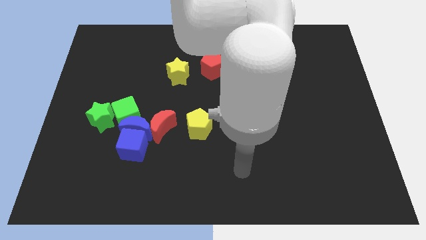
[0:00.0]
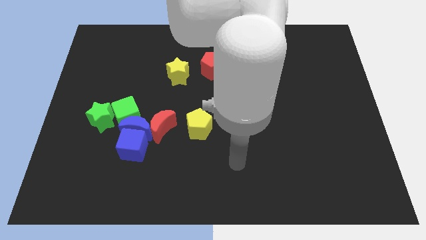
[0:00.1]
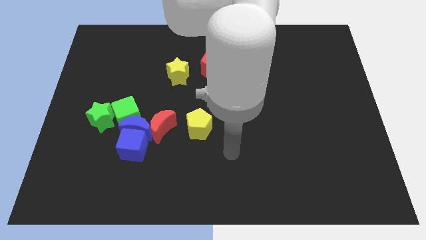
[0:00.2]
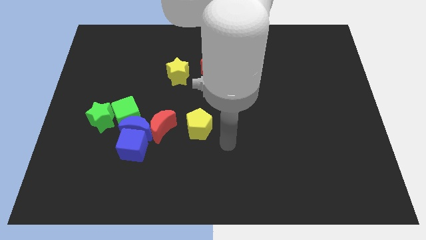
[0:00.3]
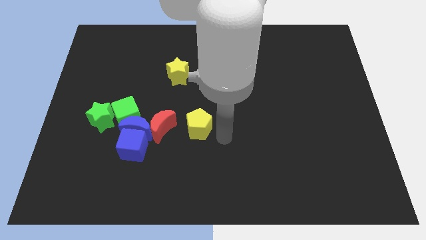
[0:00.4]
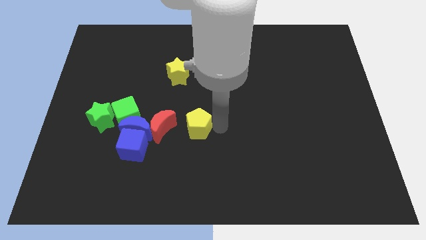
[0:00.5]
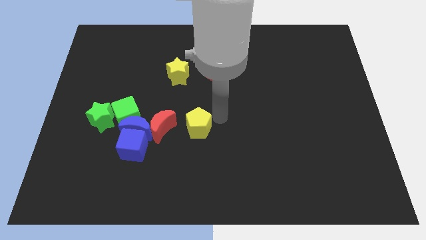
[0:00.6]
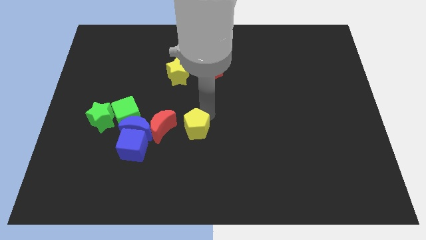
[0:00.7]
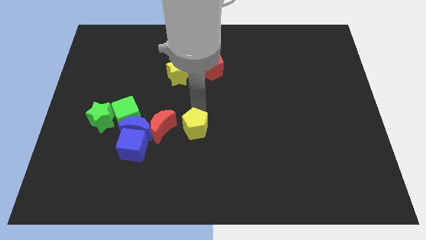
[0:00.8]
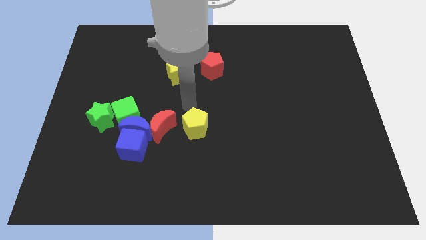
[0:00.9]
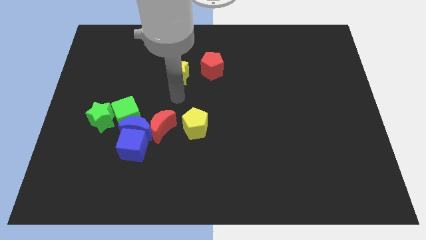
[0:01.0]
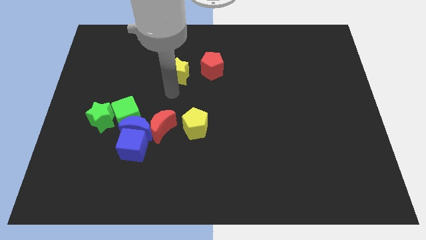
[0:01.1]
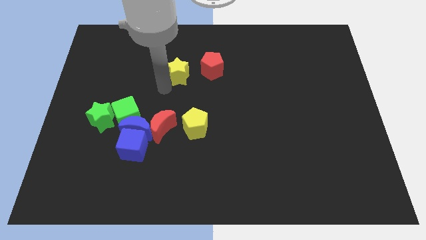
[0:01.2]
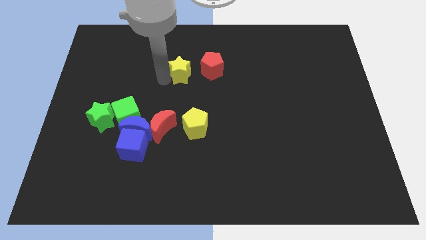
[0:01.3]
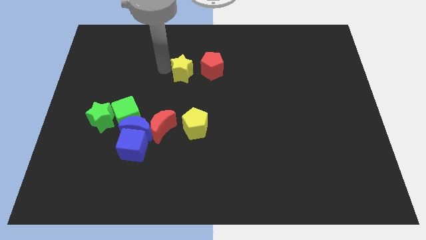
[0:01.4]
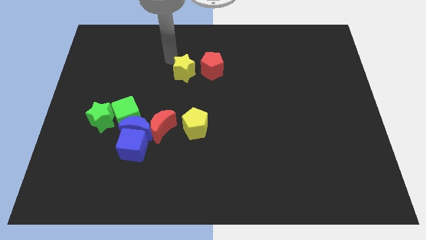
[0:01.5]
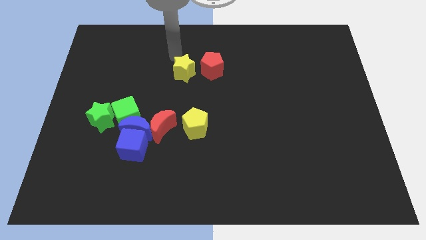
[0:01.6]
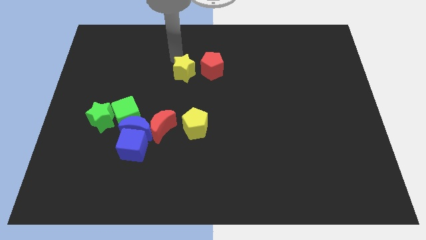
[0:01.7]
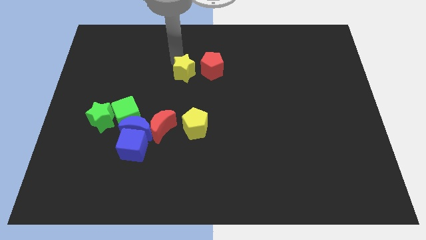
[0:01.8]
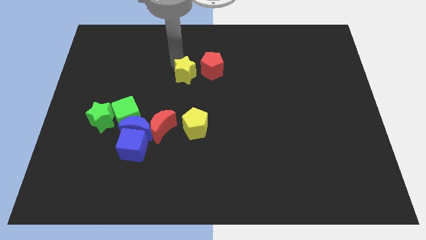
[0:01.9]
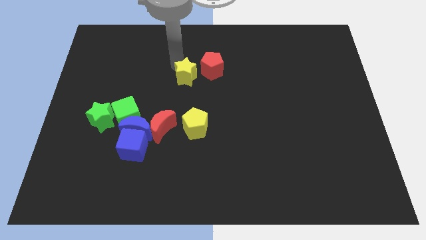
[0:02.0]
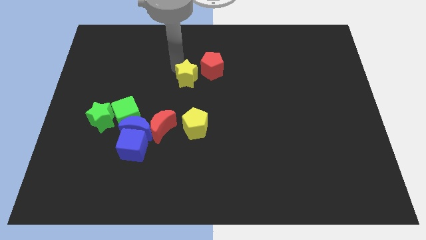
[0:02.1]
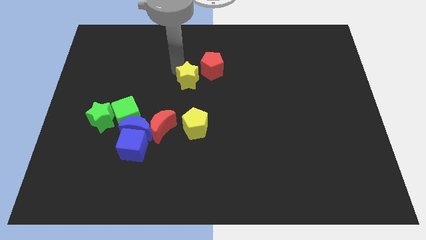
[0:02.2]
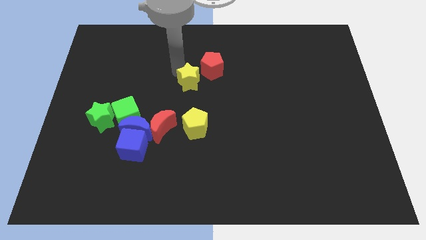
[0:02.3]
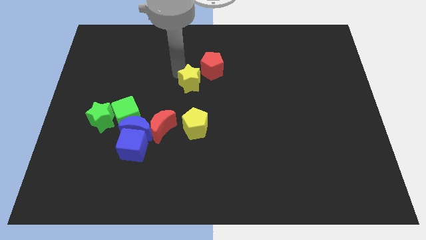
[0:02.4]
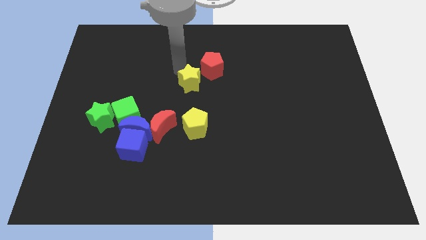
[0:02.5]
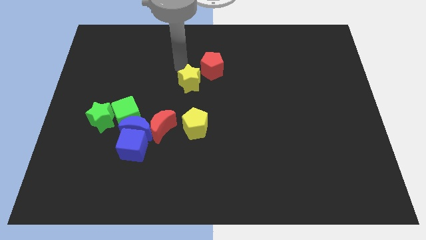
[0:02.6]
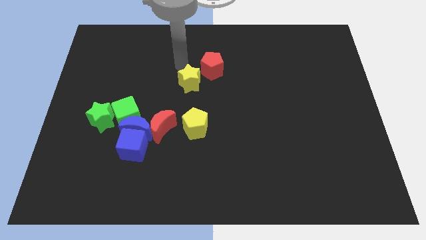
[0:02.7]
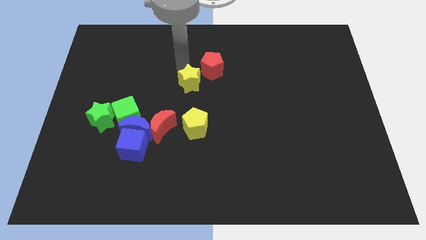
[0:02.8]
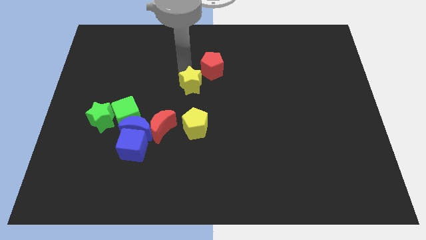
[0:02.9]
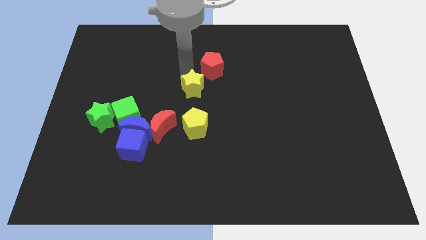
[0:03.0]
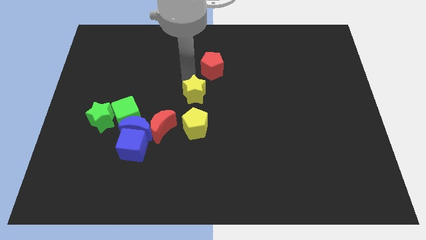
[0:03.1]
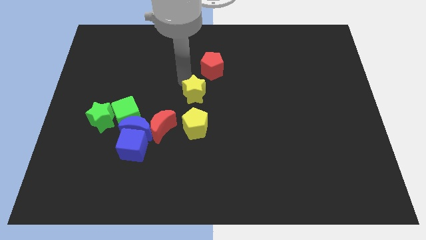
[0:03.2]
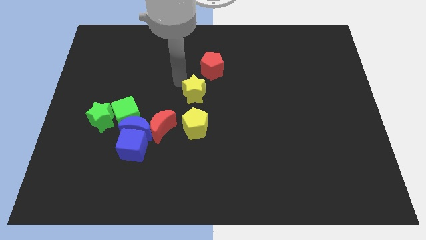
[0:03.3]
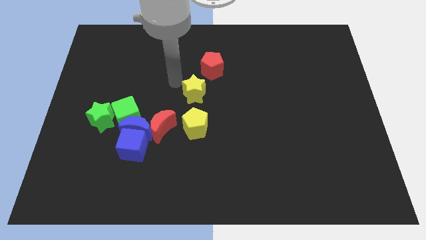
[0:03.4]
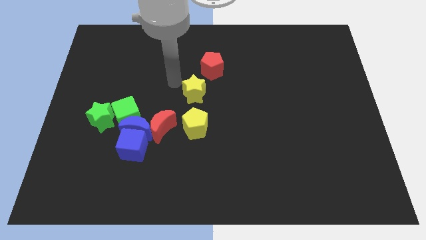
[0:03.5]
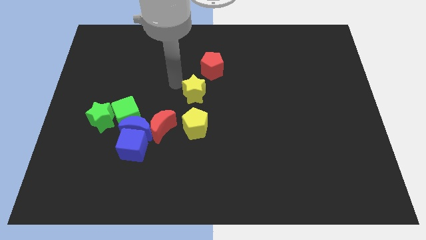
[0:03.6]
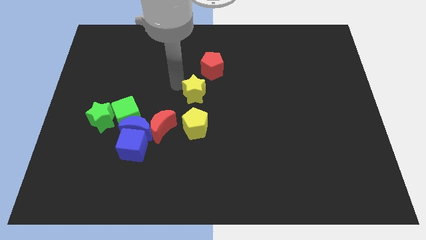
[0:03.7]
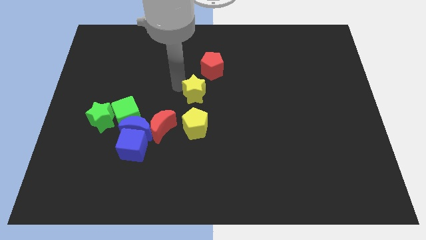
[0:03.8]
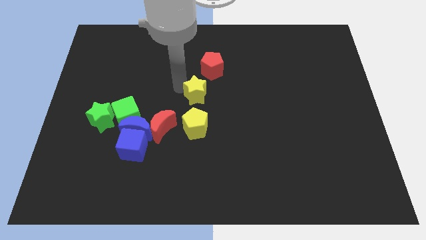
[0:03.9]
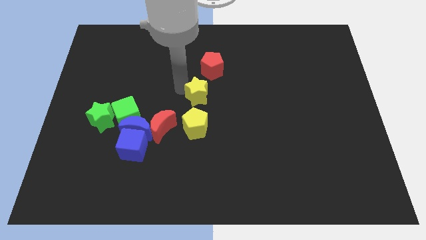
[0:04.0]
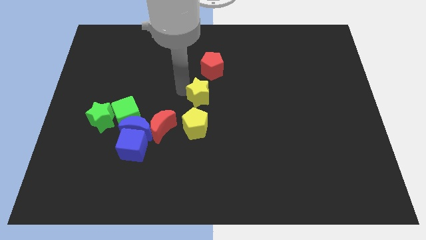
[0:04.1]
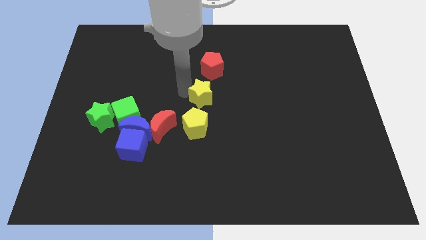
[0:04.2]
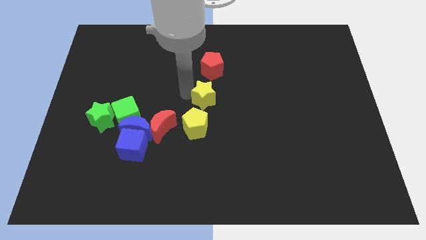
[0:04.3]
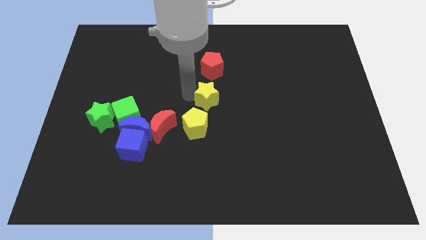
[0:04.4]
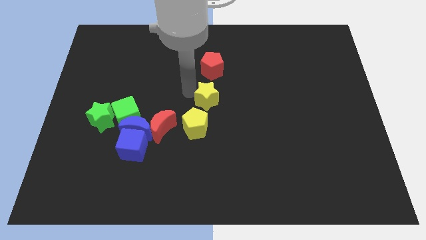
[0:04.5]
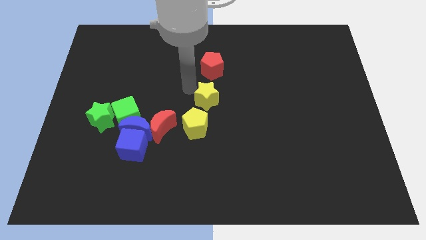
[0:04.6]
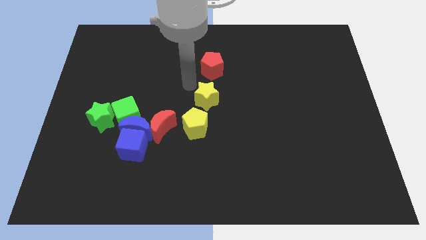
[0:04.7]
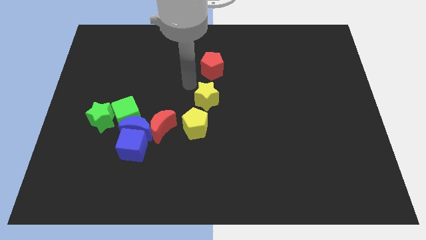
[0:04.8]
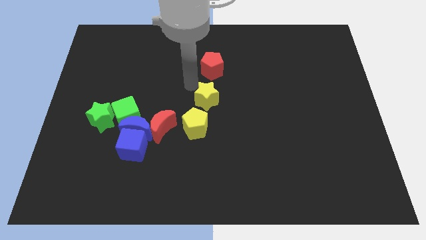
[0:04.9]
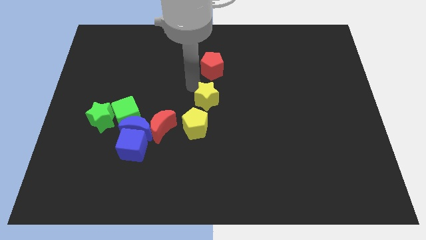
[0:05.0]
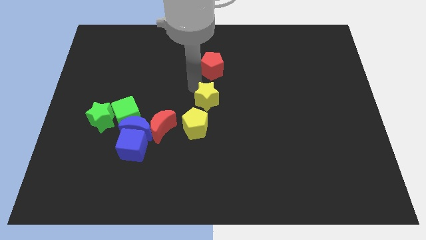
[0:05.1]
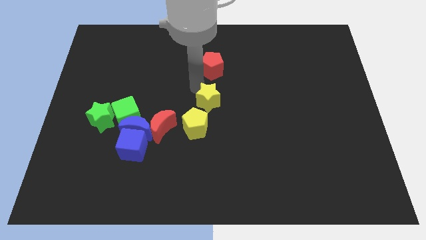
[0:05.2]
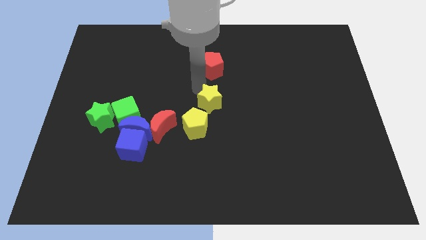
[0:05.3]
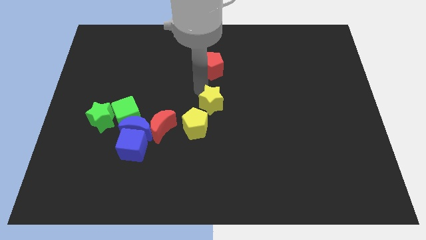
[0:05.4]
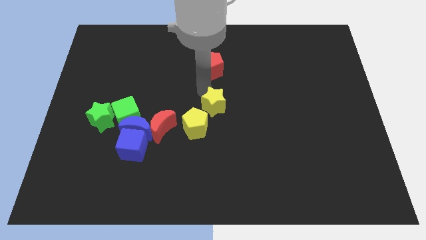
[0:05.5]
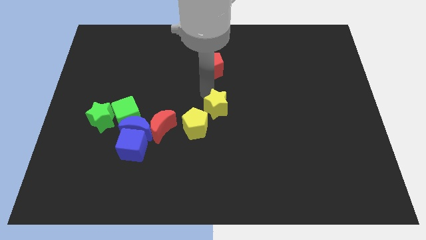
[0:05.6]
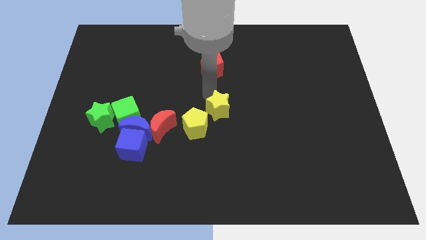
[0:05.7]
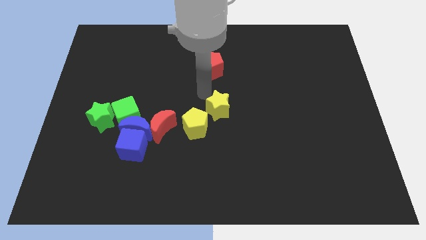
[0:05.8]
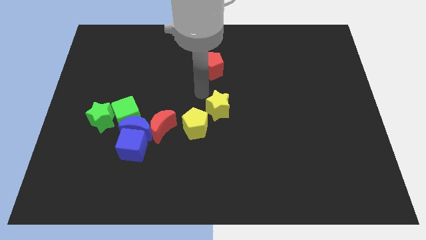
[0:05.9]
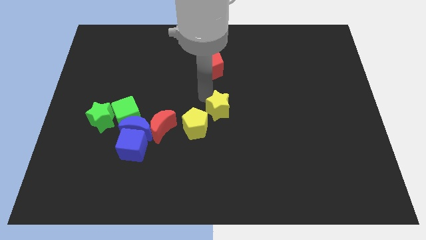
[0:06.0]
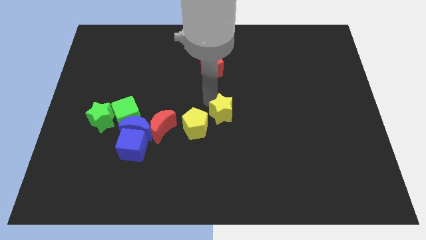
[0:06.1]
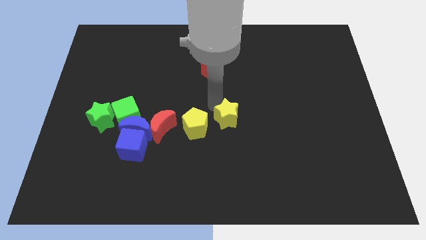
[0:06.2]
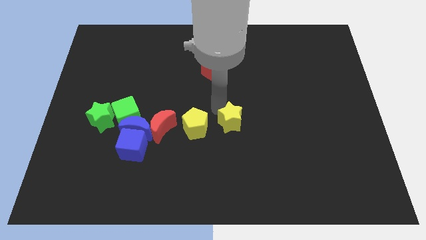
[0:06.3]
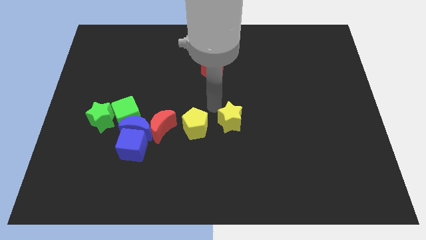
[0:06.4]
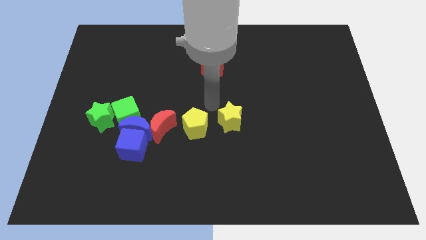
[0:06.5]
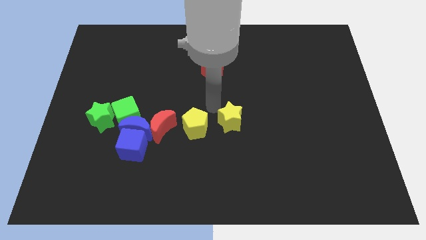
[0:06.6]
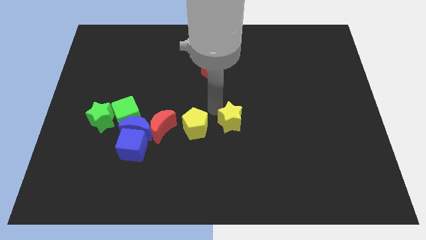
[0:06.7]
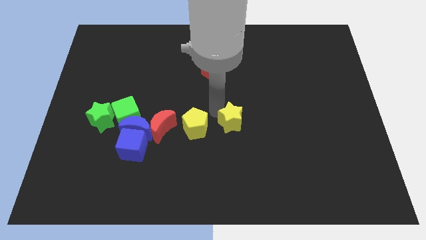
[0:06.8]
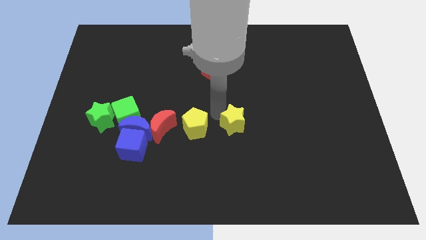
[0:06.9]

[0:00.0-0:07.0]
slide the yellow star diagonally downwards and to the right

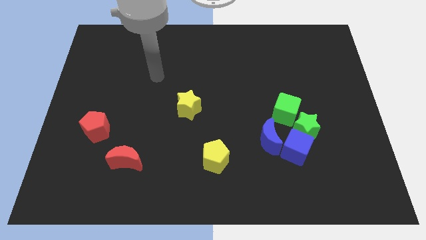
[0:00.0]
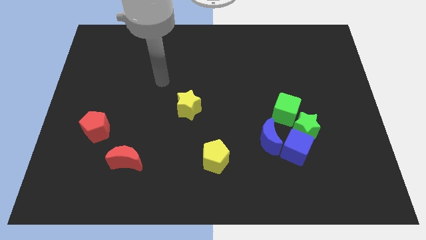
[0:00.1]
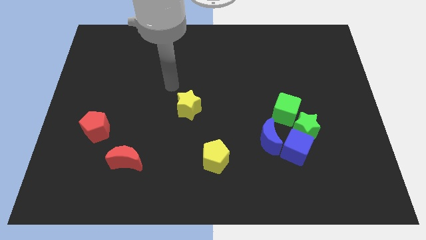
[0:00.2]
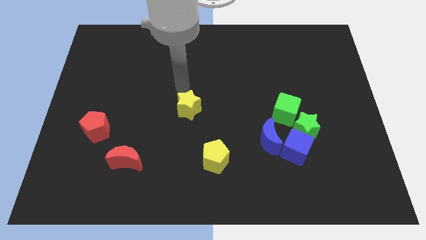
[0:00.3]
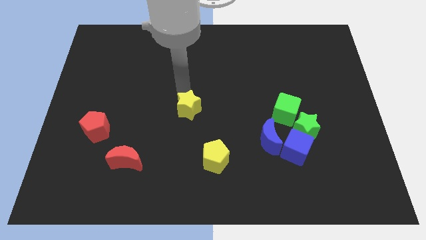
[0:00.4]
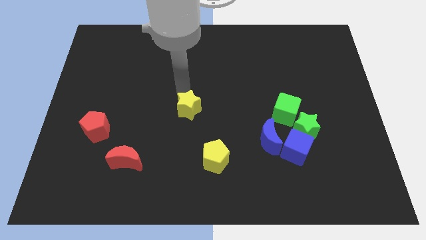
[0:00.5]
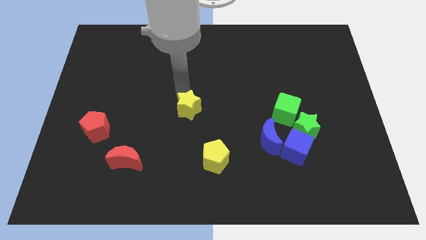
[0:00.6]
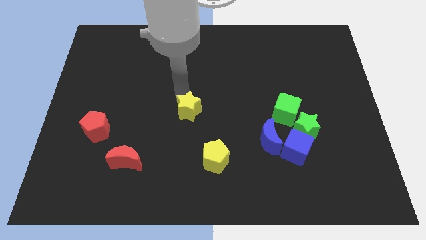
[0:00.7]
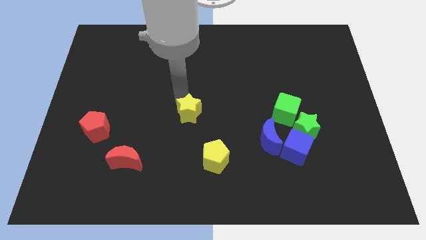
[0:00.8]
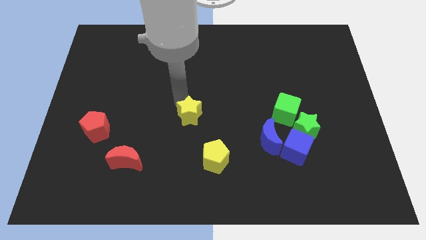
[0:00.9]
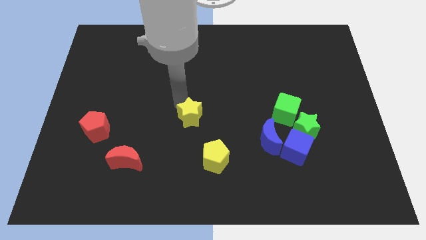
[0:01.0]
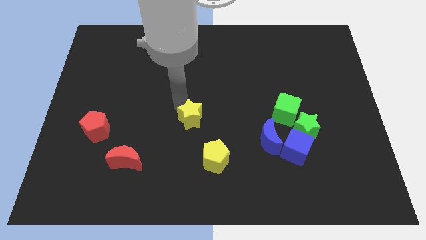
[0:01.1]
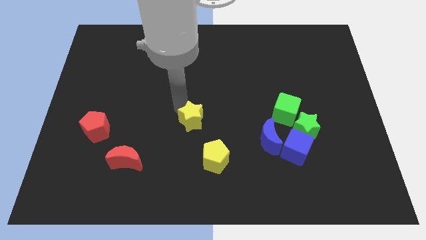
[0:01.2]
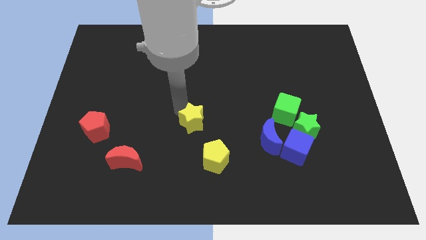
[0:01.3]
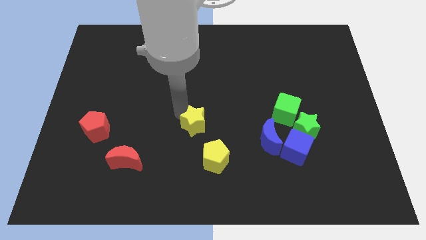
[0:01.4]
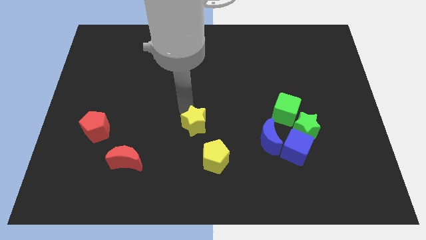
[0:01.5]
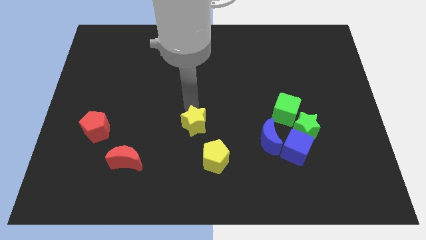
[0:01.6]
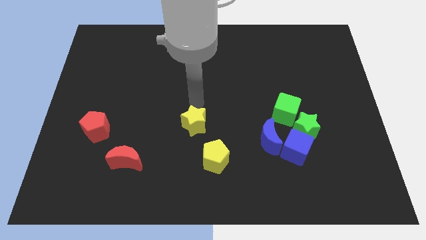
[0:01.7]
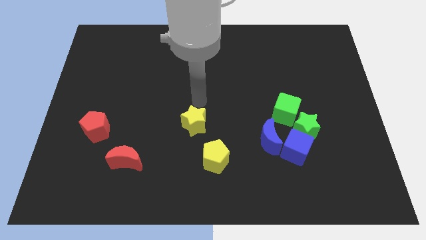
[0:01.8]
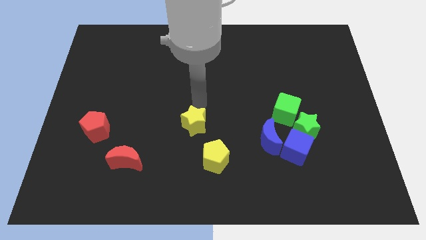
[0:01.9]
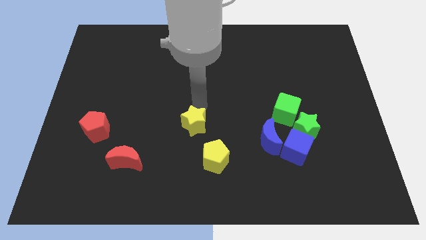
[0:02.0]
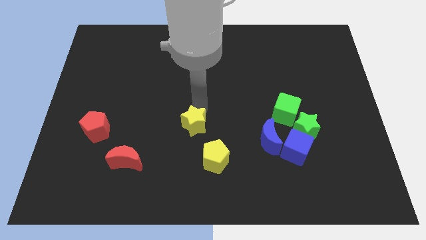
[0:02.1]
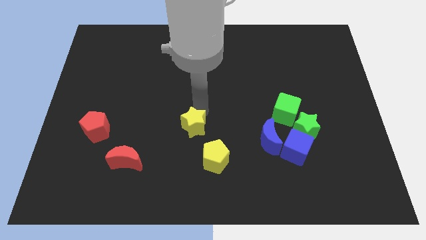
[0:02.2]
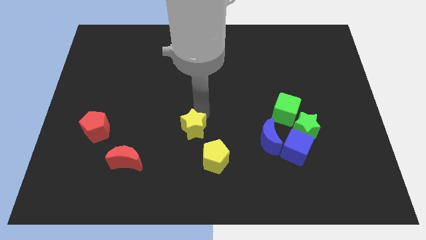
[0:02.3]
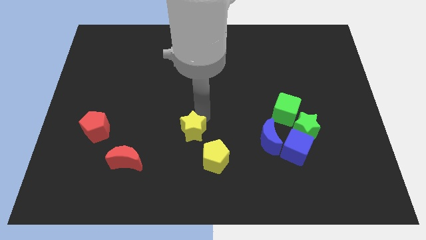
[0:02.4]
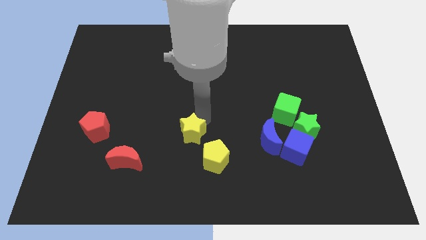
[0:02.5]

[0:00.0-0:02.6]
slide the yellow star downwards a little bit
